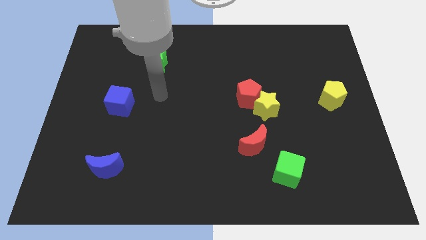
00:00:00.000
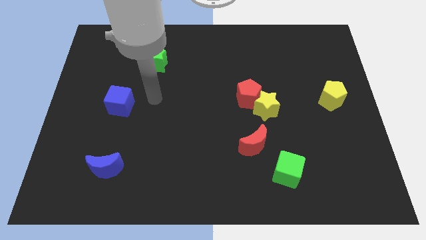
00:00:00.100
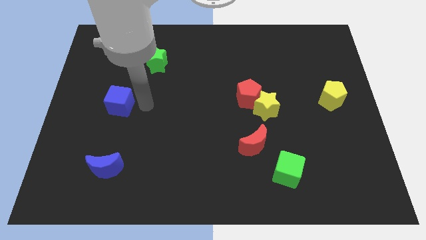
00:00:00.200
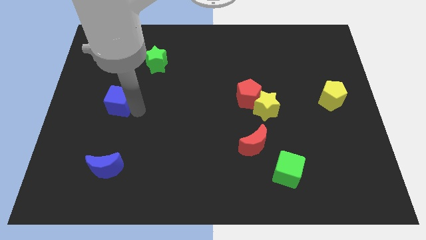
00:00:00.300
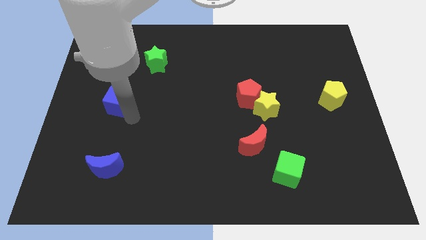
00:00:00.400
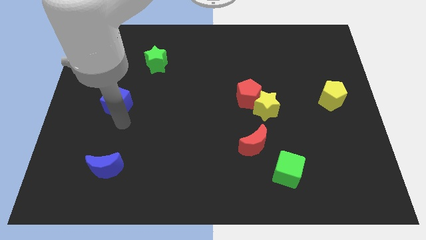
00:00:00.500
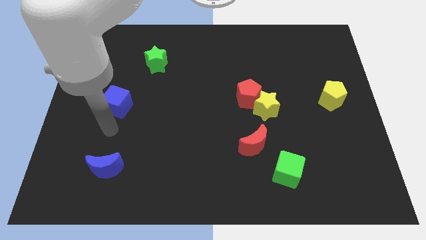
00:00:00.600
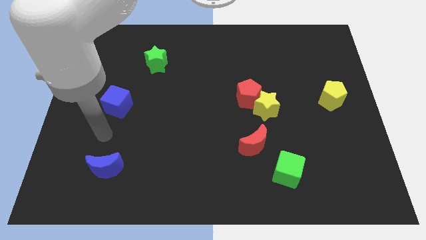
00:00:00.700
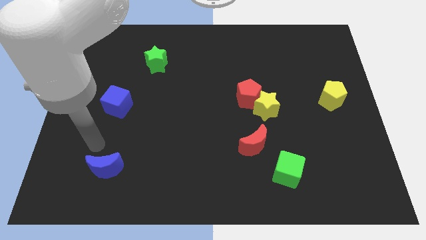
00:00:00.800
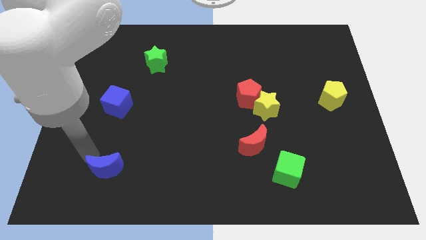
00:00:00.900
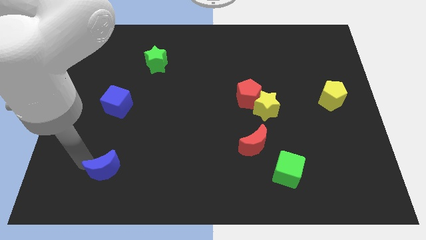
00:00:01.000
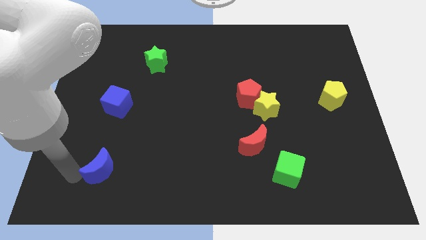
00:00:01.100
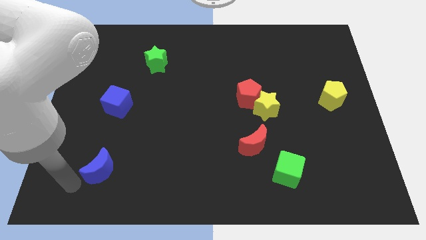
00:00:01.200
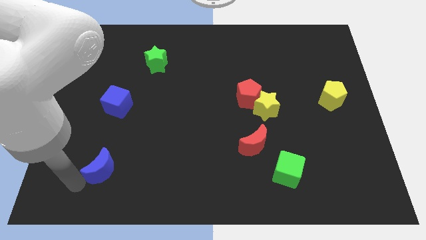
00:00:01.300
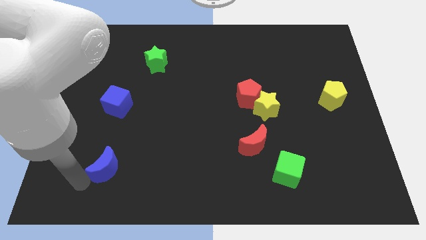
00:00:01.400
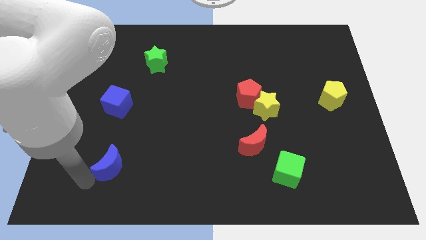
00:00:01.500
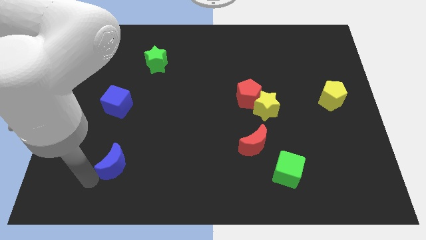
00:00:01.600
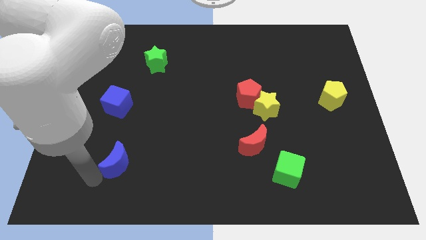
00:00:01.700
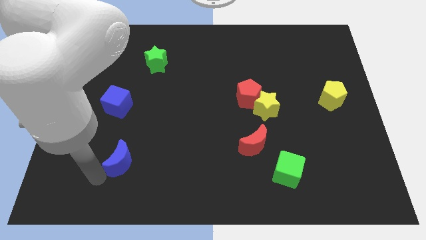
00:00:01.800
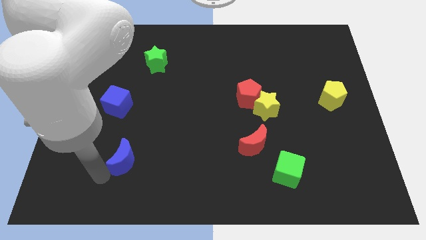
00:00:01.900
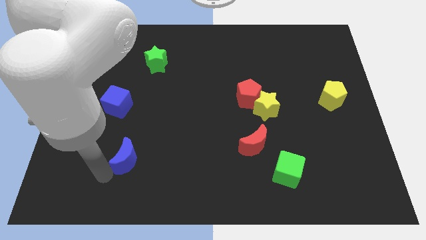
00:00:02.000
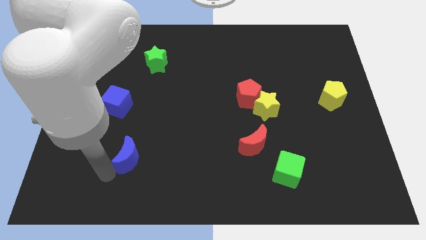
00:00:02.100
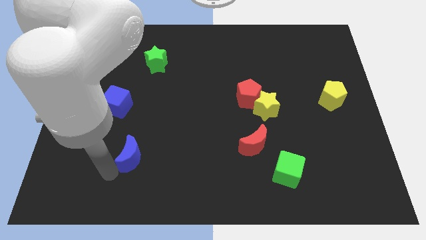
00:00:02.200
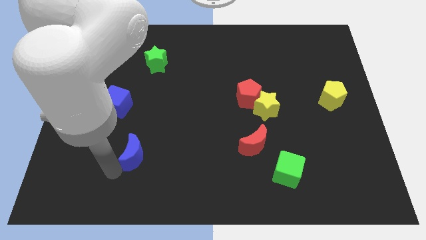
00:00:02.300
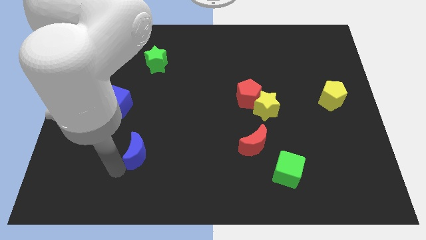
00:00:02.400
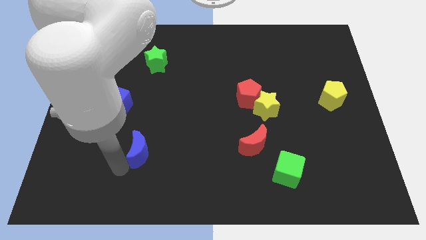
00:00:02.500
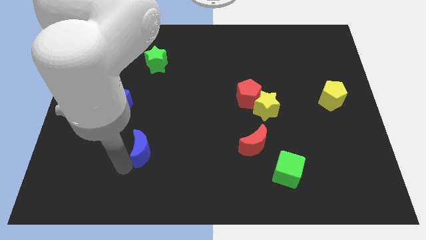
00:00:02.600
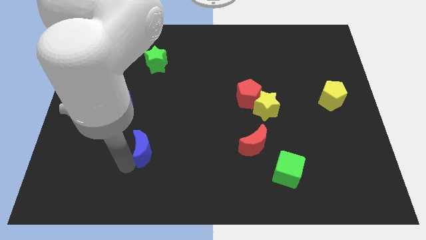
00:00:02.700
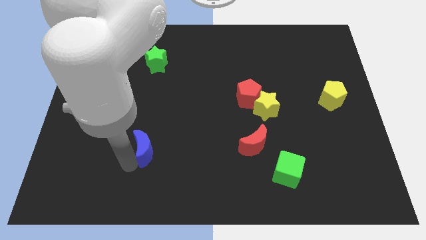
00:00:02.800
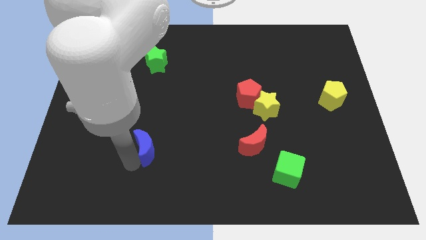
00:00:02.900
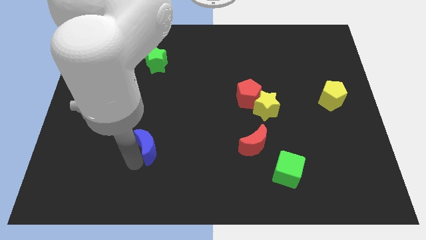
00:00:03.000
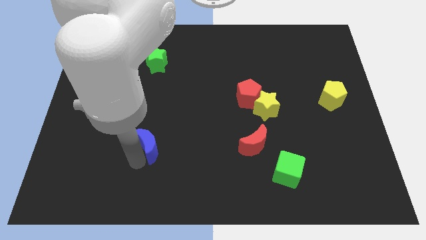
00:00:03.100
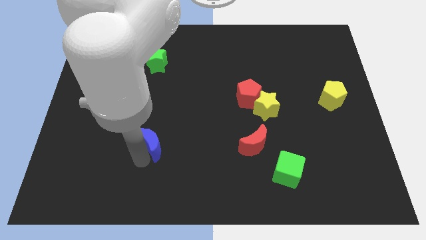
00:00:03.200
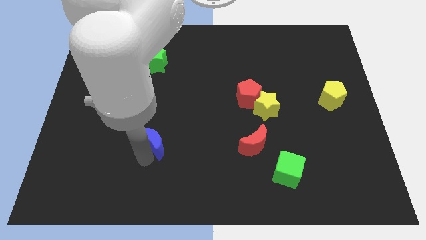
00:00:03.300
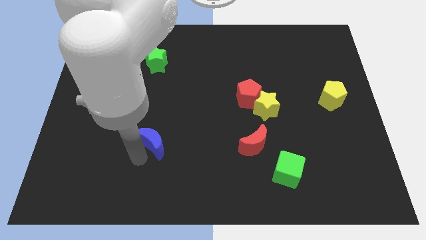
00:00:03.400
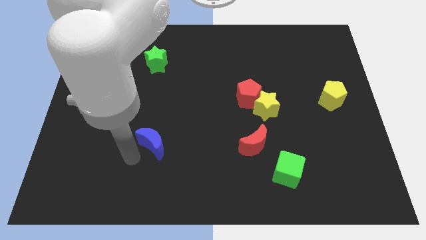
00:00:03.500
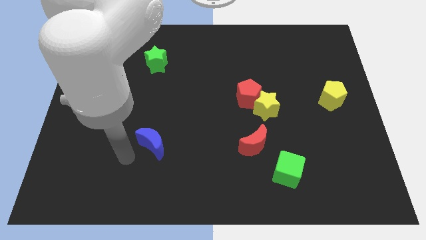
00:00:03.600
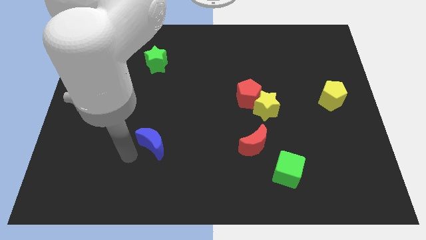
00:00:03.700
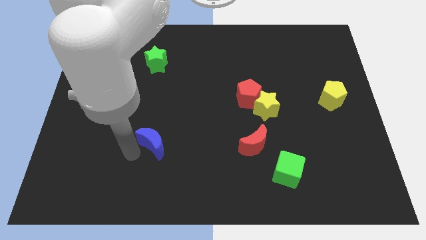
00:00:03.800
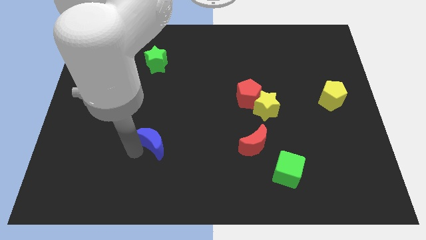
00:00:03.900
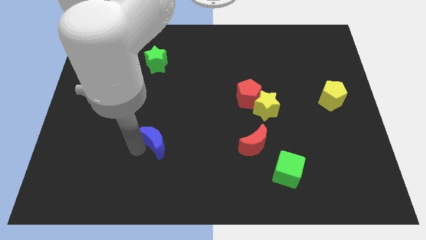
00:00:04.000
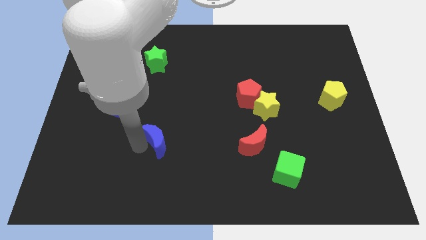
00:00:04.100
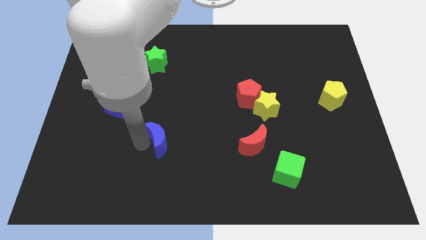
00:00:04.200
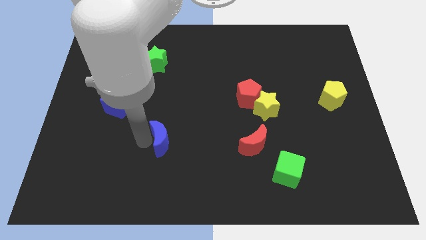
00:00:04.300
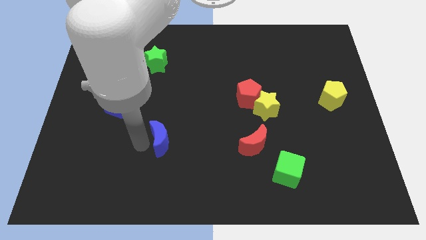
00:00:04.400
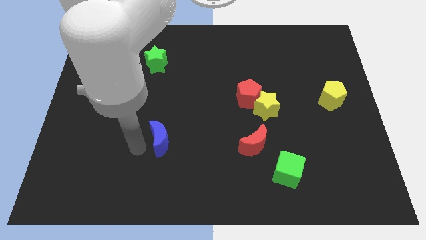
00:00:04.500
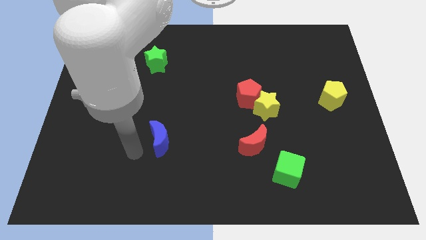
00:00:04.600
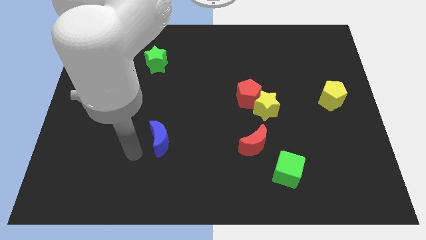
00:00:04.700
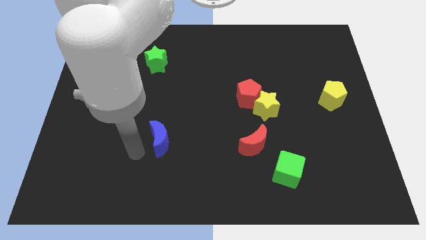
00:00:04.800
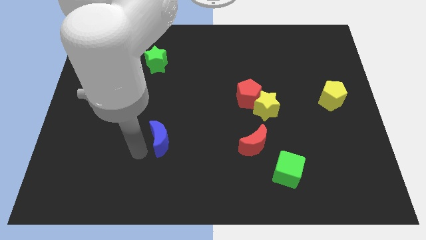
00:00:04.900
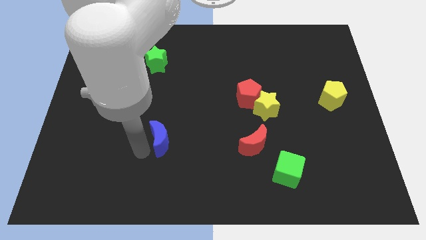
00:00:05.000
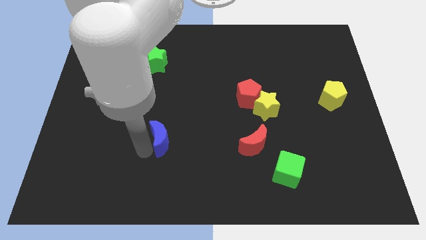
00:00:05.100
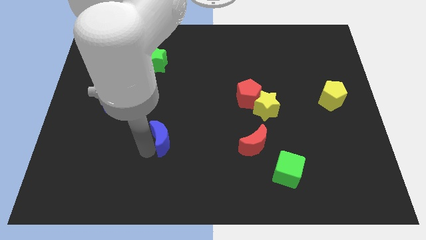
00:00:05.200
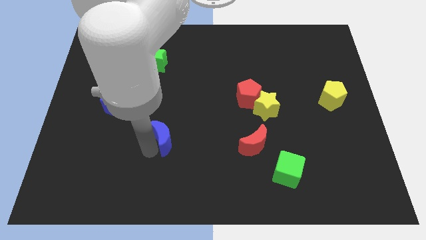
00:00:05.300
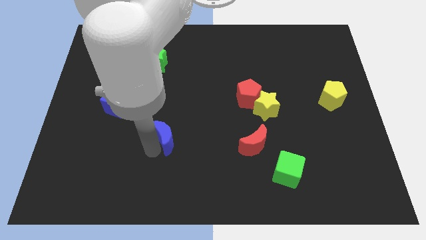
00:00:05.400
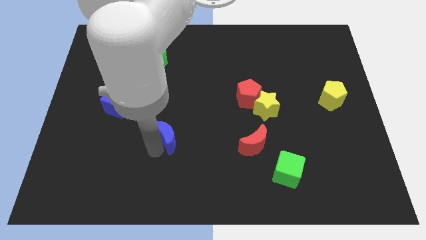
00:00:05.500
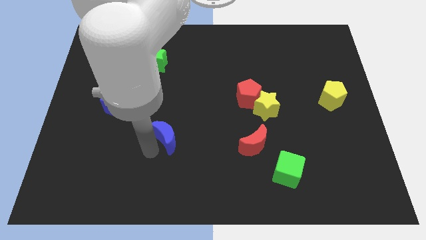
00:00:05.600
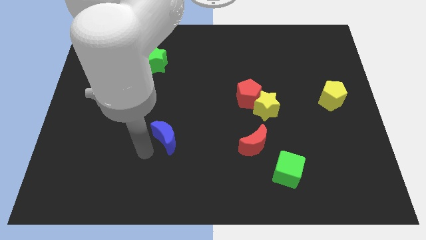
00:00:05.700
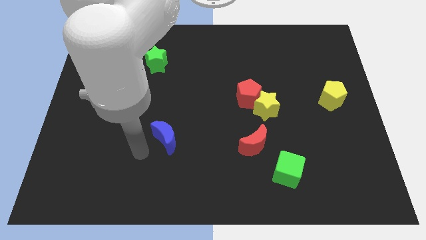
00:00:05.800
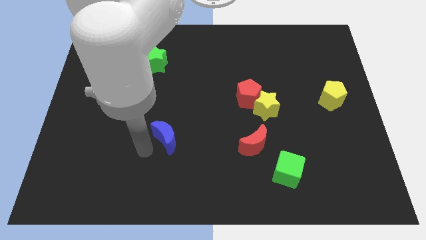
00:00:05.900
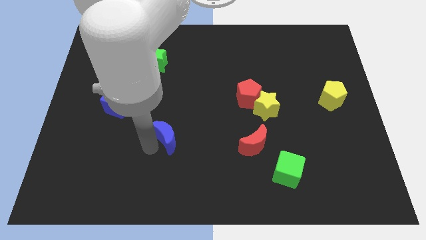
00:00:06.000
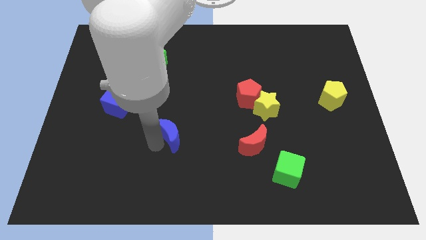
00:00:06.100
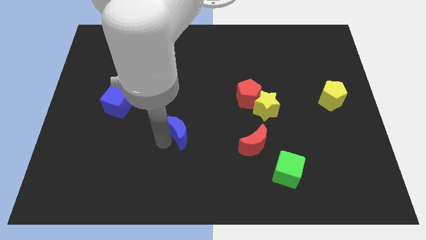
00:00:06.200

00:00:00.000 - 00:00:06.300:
push the blue moon to the middle
